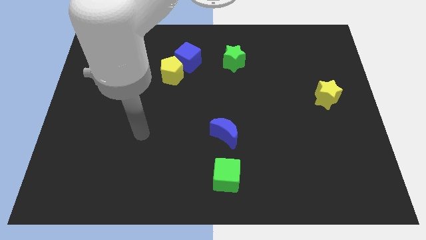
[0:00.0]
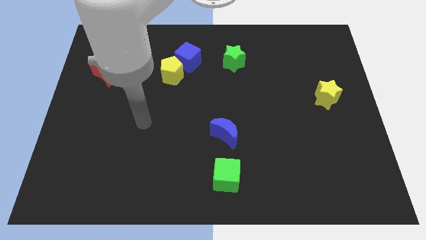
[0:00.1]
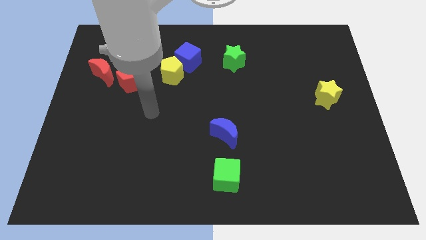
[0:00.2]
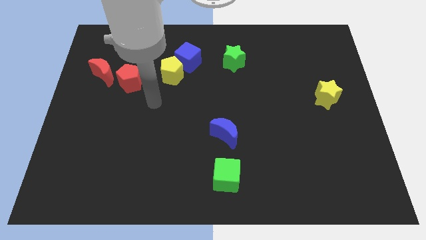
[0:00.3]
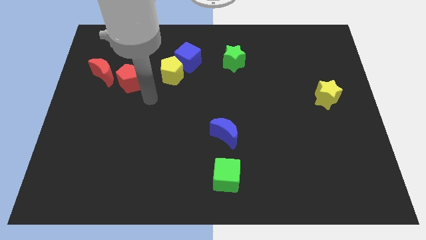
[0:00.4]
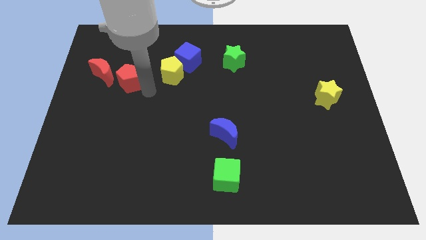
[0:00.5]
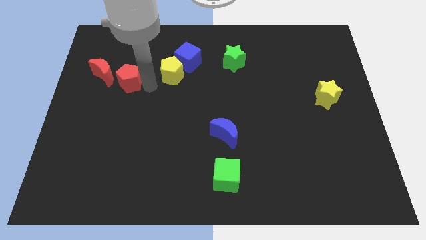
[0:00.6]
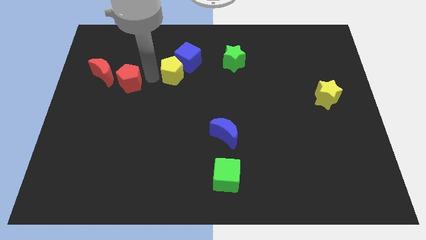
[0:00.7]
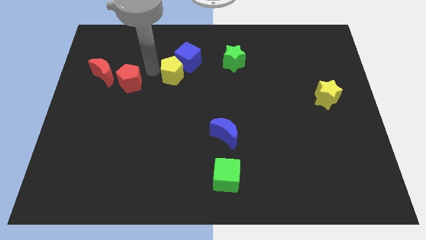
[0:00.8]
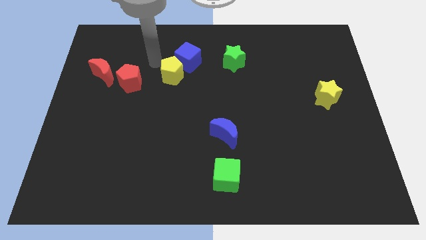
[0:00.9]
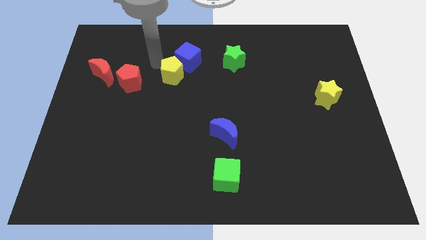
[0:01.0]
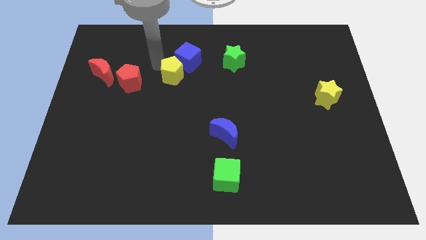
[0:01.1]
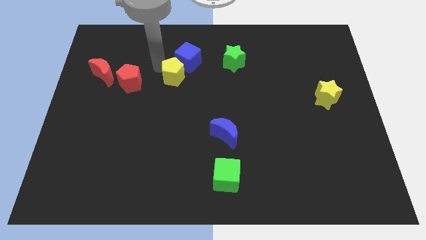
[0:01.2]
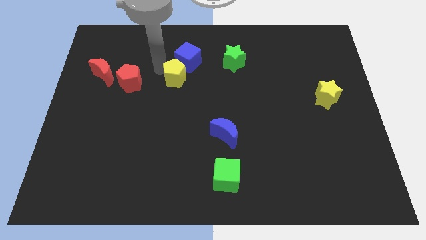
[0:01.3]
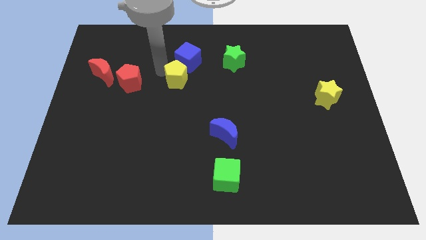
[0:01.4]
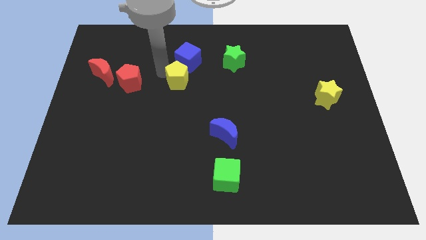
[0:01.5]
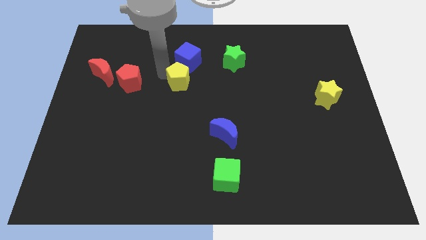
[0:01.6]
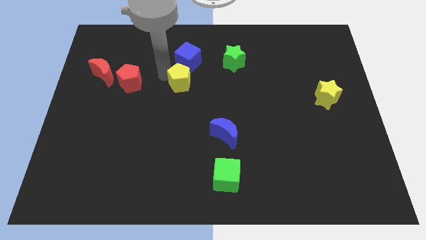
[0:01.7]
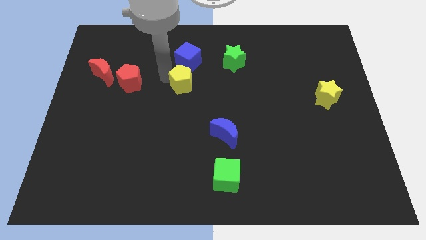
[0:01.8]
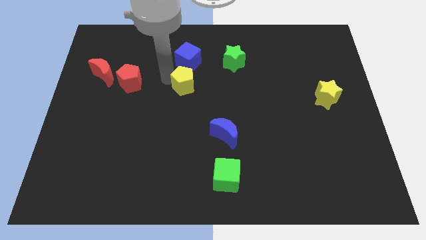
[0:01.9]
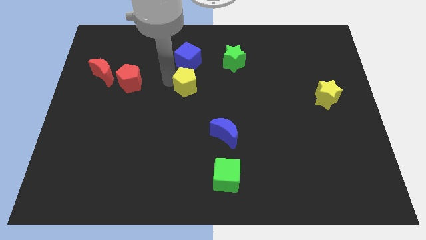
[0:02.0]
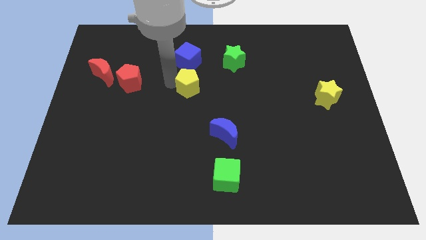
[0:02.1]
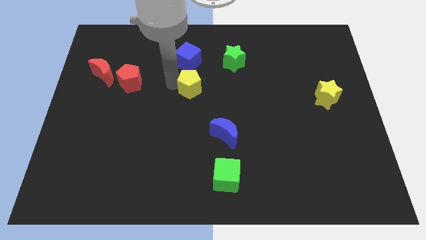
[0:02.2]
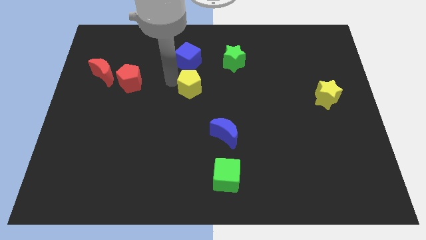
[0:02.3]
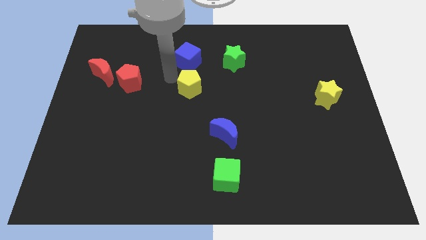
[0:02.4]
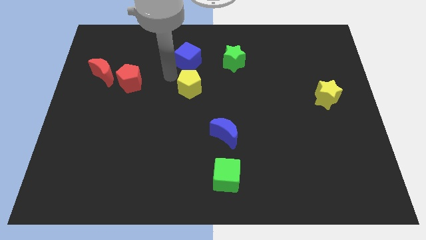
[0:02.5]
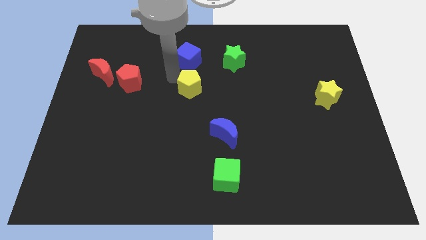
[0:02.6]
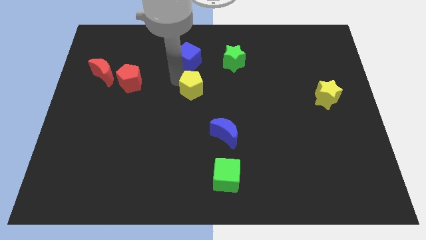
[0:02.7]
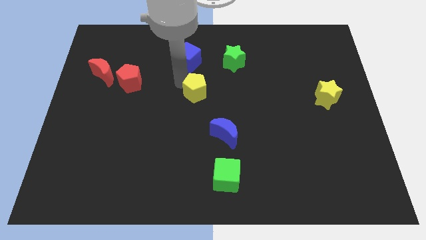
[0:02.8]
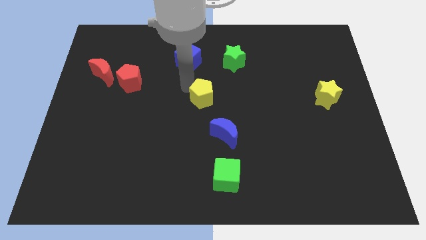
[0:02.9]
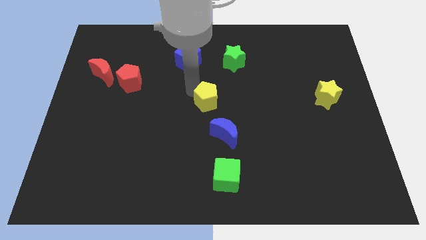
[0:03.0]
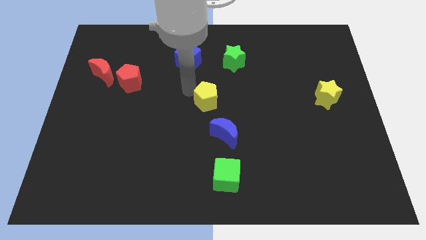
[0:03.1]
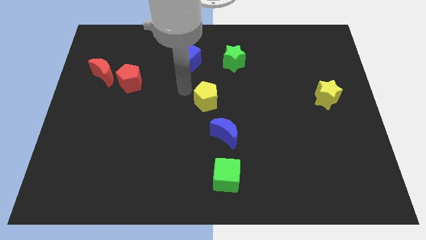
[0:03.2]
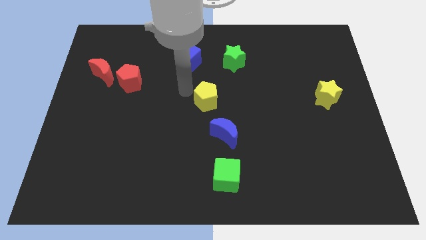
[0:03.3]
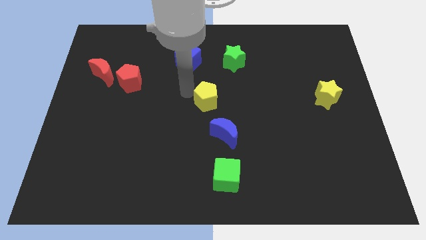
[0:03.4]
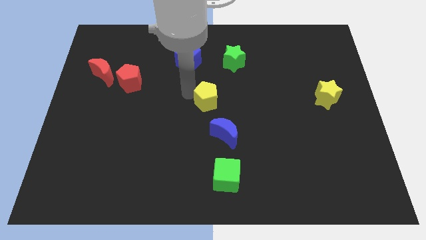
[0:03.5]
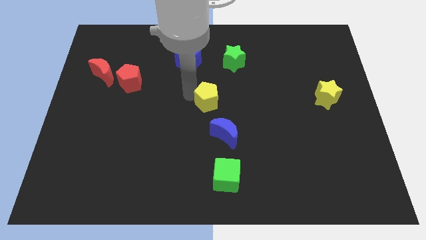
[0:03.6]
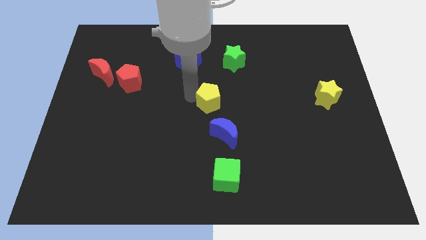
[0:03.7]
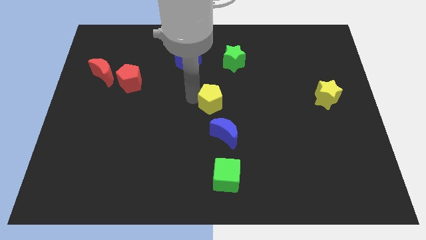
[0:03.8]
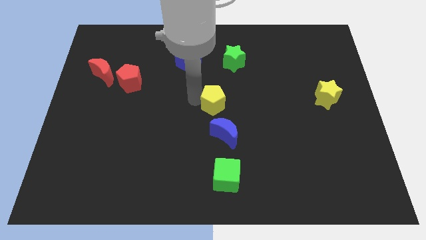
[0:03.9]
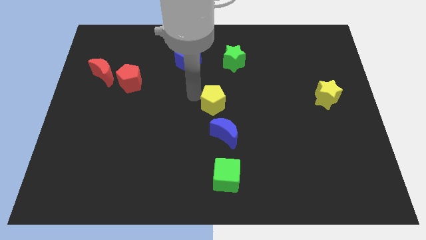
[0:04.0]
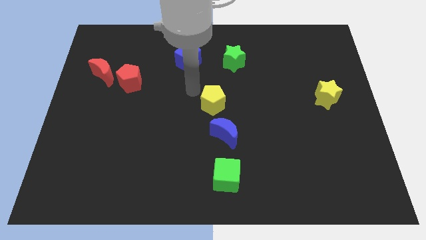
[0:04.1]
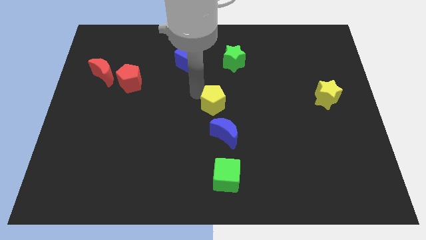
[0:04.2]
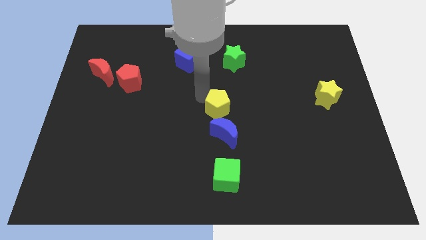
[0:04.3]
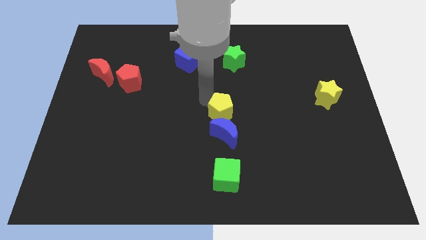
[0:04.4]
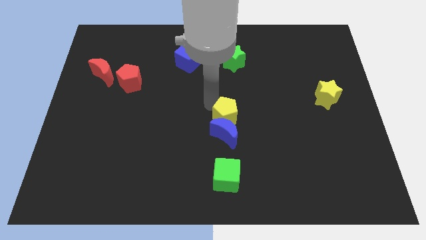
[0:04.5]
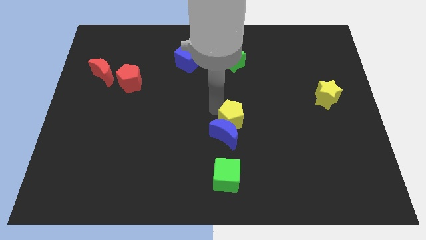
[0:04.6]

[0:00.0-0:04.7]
push the yellow pentagon down and then right

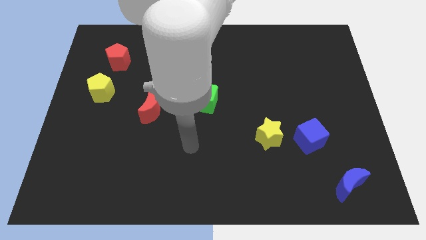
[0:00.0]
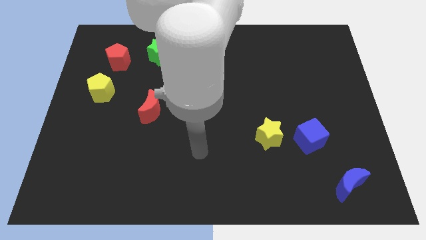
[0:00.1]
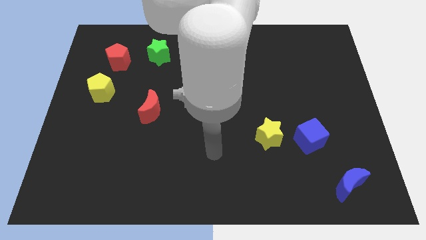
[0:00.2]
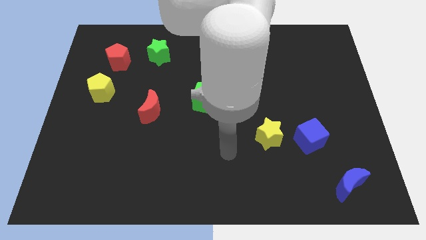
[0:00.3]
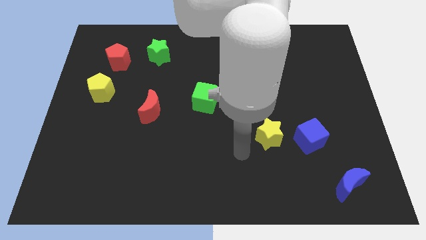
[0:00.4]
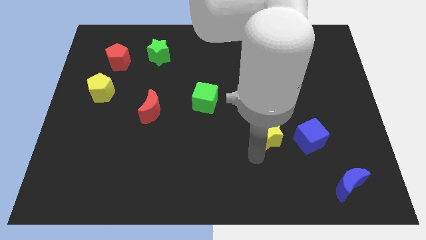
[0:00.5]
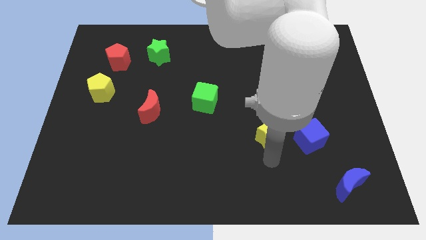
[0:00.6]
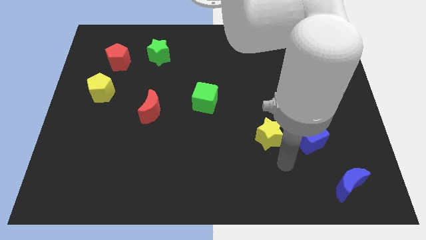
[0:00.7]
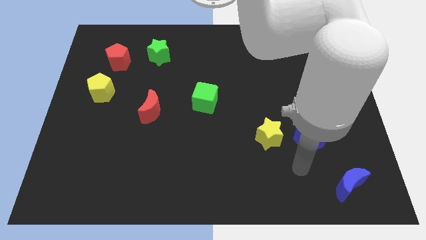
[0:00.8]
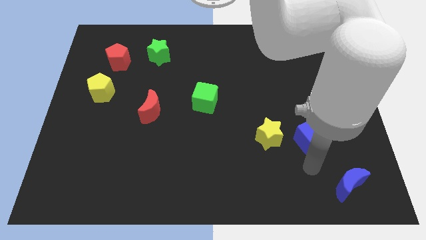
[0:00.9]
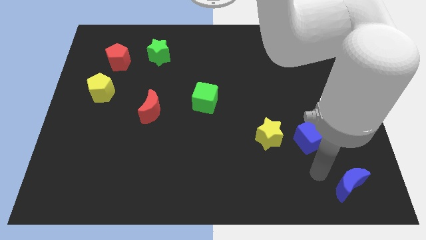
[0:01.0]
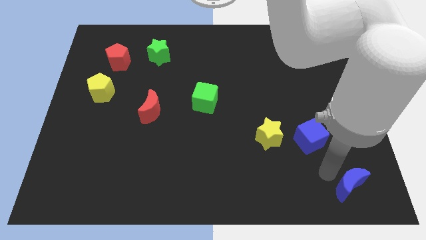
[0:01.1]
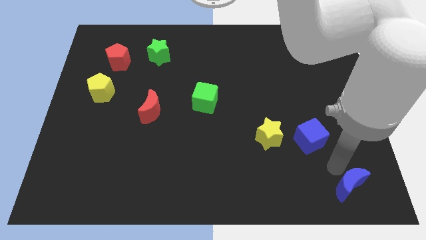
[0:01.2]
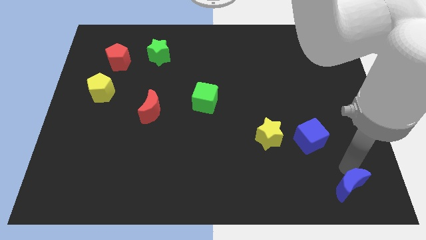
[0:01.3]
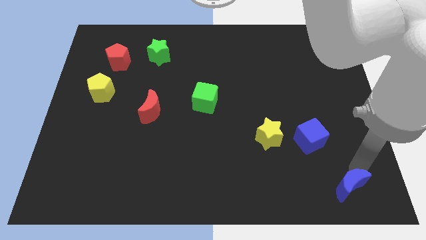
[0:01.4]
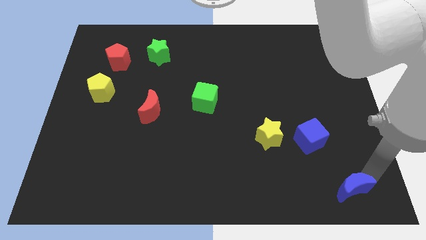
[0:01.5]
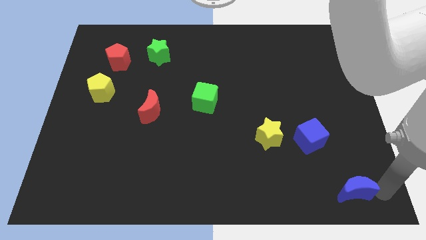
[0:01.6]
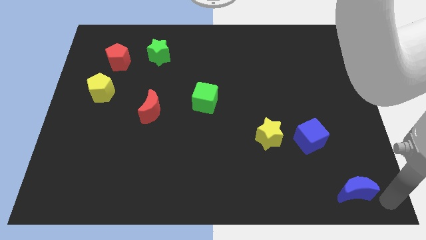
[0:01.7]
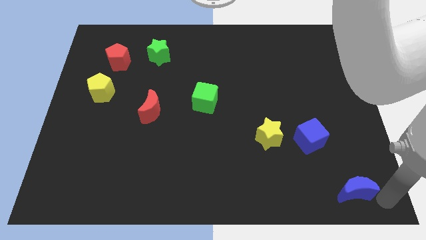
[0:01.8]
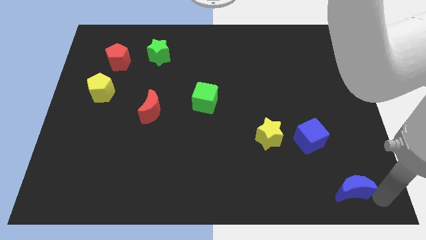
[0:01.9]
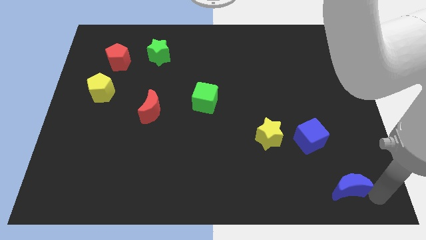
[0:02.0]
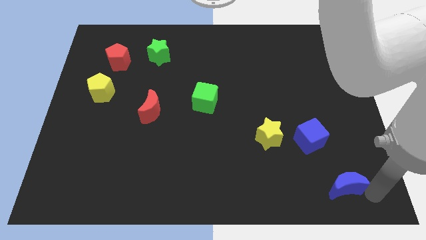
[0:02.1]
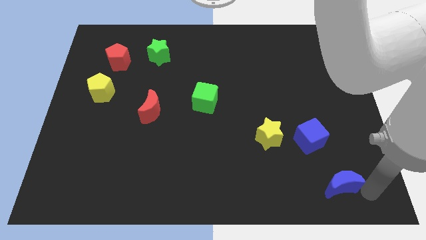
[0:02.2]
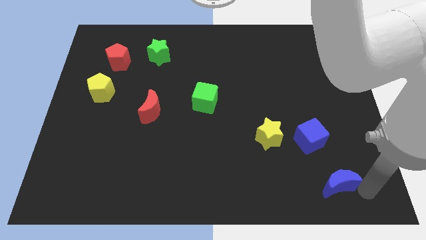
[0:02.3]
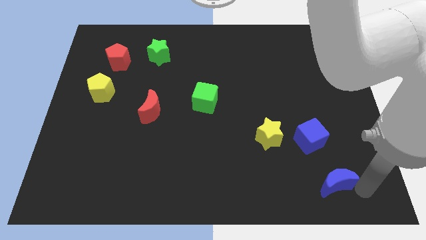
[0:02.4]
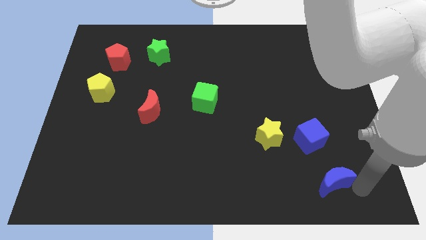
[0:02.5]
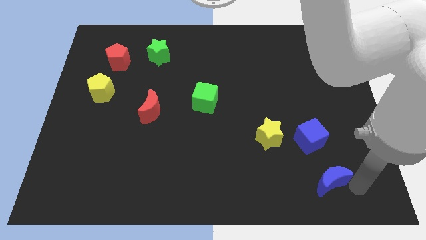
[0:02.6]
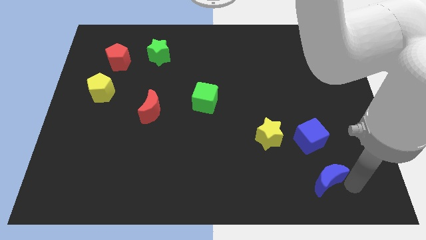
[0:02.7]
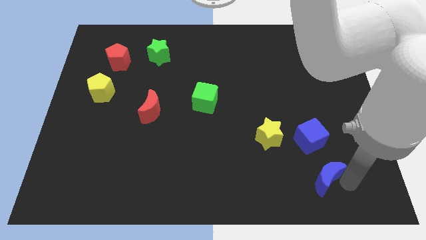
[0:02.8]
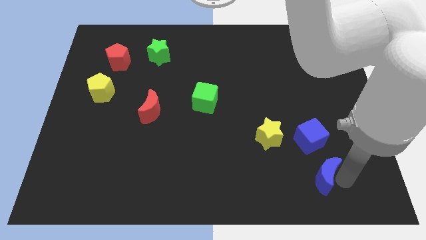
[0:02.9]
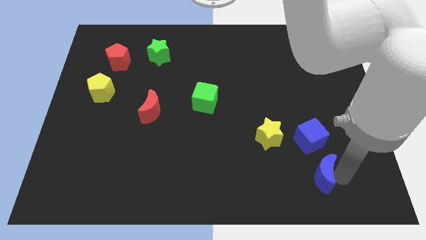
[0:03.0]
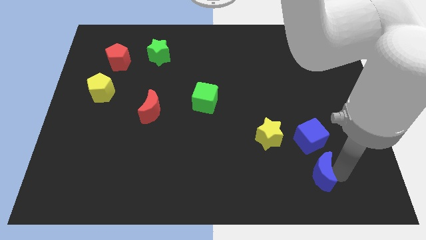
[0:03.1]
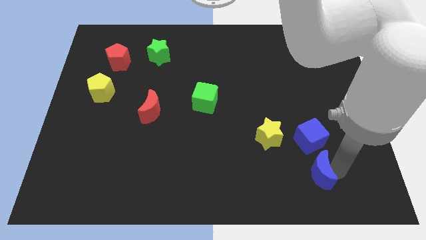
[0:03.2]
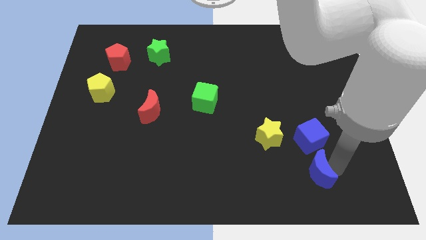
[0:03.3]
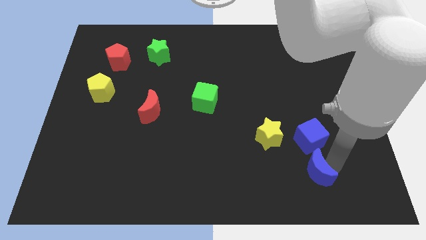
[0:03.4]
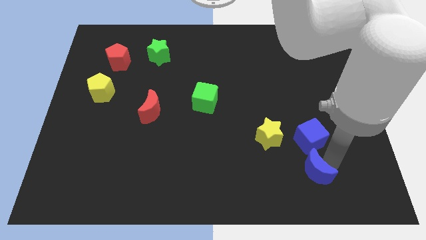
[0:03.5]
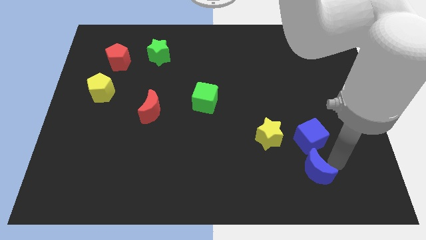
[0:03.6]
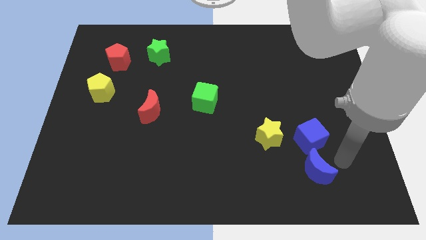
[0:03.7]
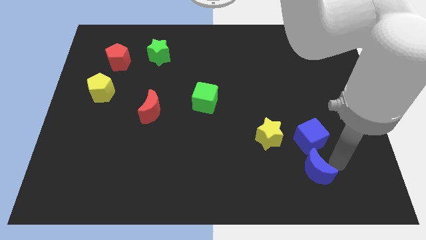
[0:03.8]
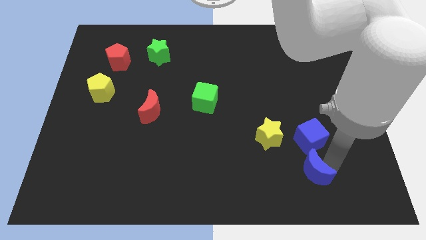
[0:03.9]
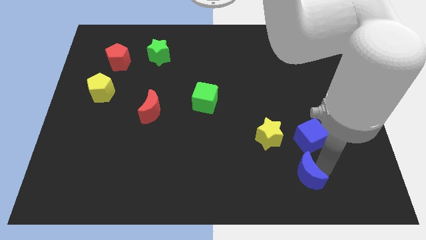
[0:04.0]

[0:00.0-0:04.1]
push the blue moon a bit left
